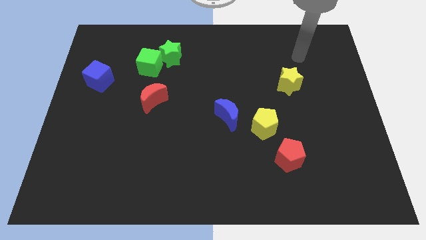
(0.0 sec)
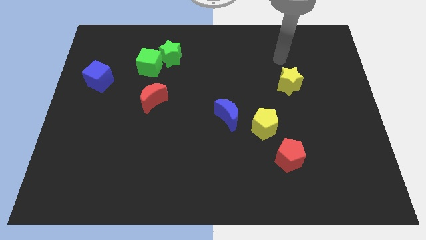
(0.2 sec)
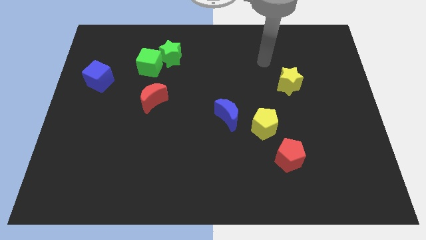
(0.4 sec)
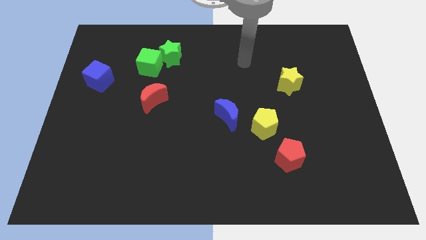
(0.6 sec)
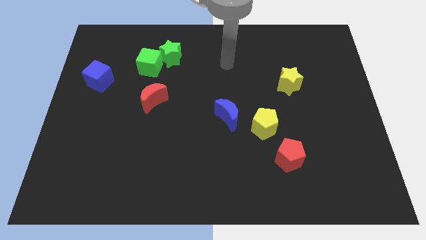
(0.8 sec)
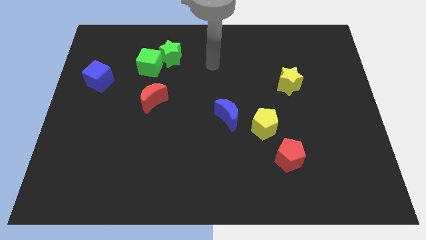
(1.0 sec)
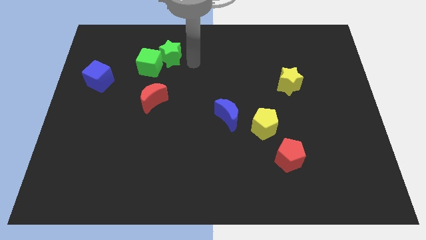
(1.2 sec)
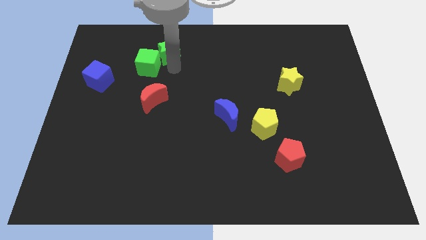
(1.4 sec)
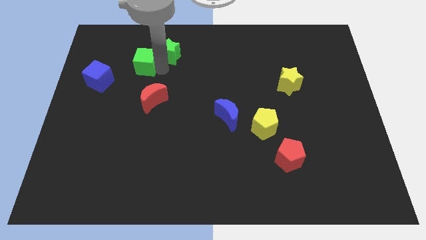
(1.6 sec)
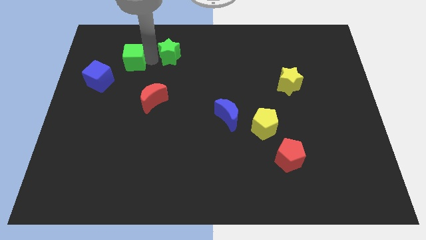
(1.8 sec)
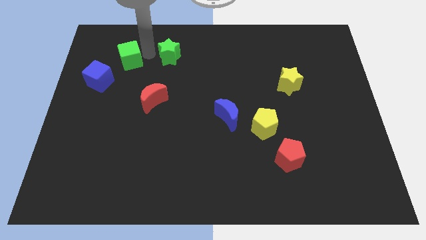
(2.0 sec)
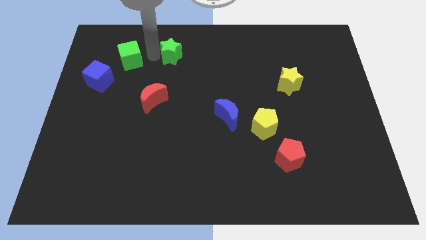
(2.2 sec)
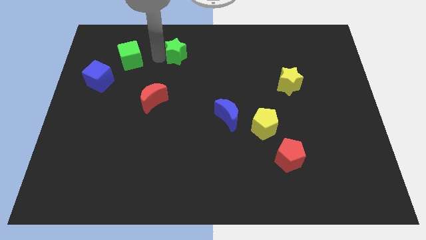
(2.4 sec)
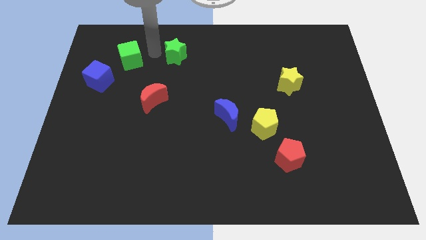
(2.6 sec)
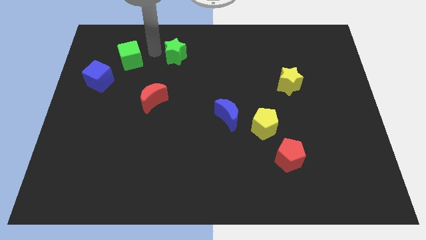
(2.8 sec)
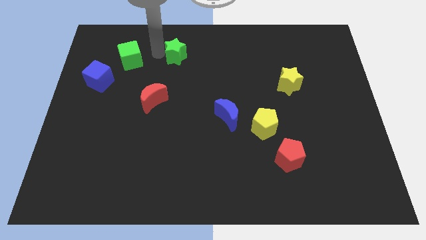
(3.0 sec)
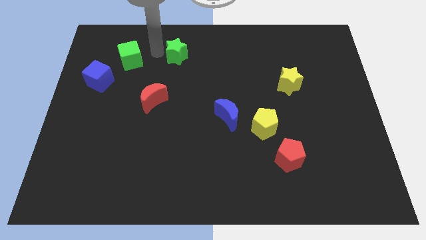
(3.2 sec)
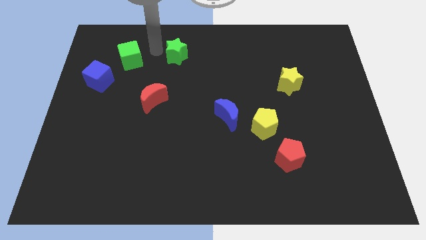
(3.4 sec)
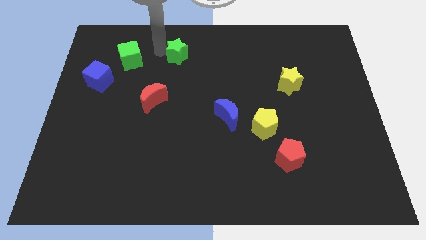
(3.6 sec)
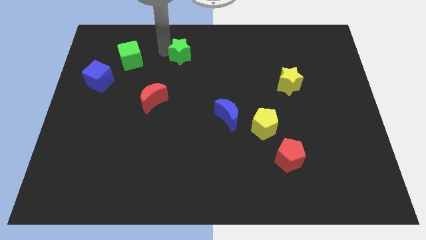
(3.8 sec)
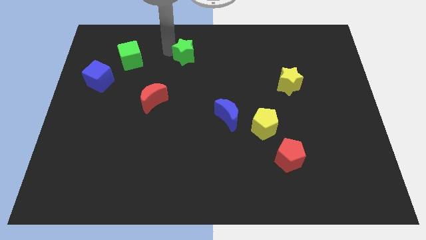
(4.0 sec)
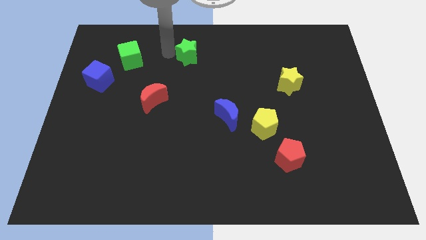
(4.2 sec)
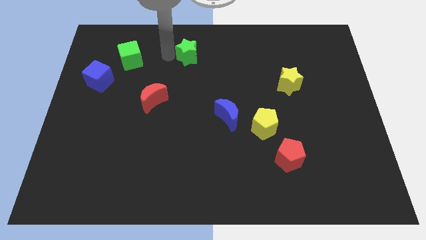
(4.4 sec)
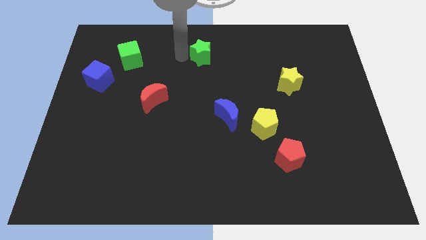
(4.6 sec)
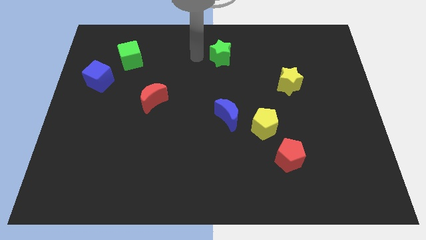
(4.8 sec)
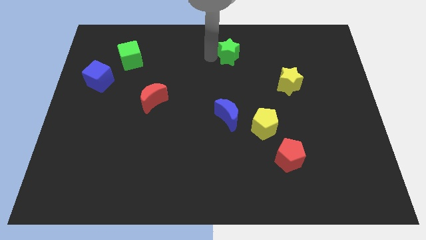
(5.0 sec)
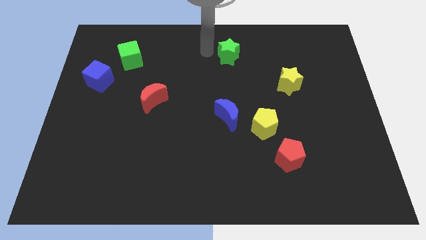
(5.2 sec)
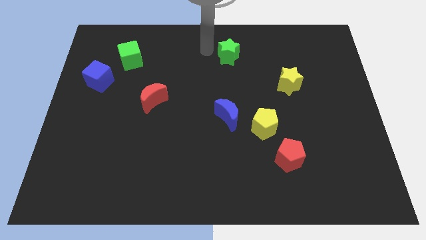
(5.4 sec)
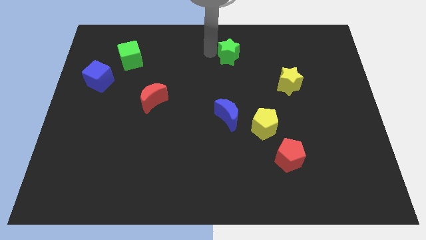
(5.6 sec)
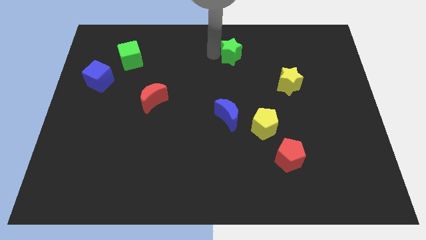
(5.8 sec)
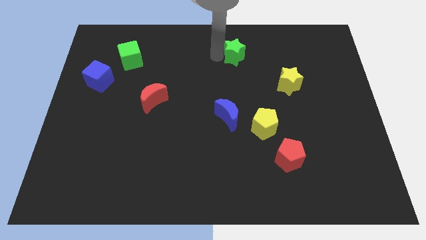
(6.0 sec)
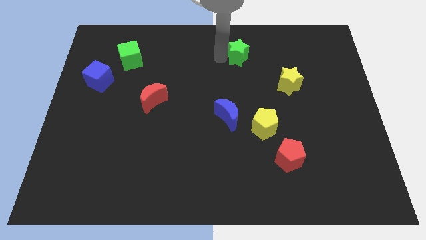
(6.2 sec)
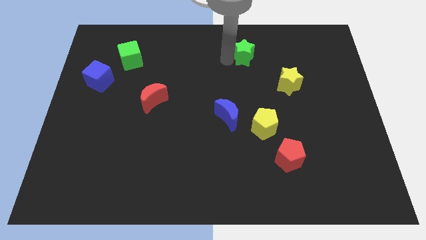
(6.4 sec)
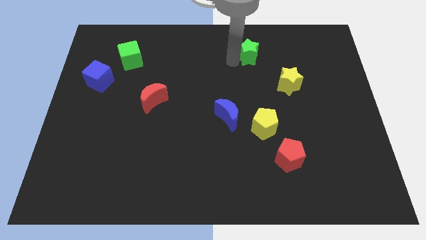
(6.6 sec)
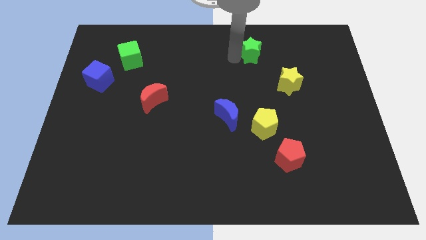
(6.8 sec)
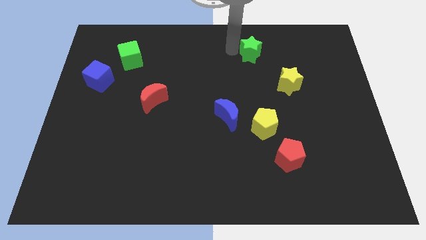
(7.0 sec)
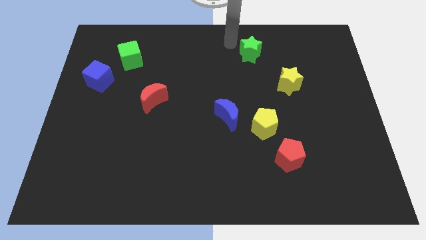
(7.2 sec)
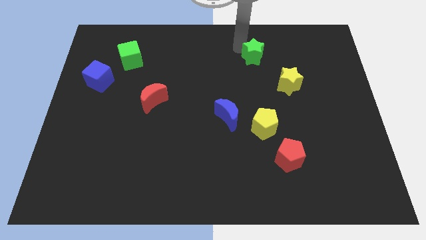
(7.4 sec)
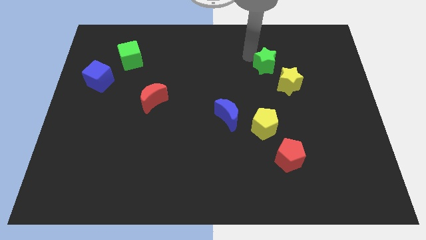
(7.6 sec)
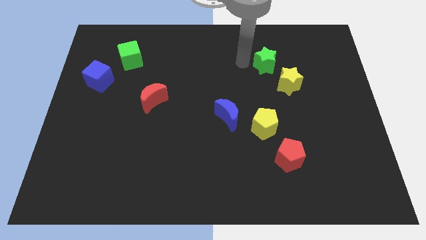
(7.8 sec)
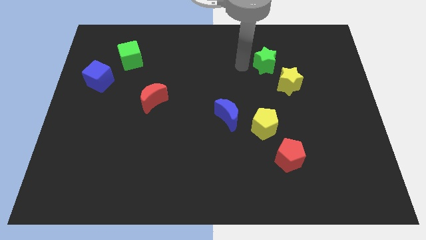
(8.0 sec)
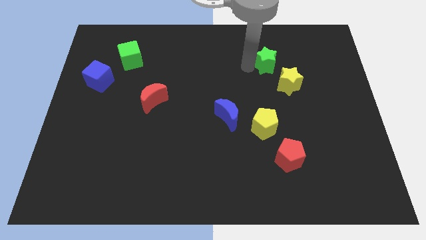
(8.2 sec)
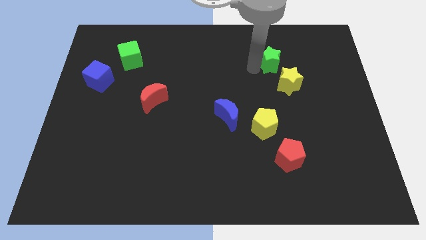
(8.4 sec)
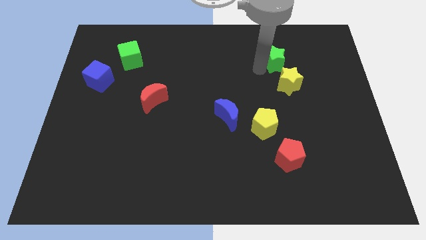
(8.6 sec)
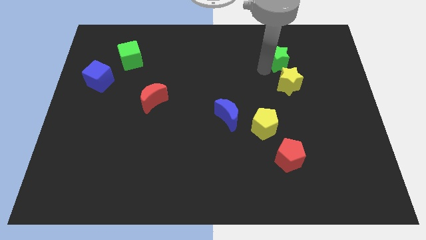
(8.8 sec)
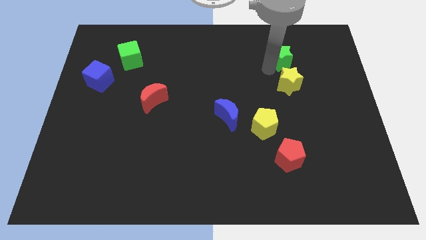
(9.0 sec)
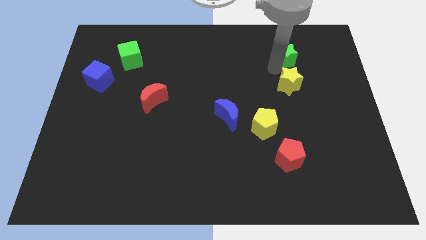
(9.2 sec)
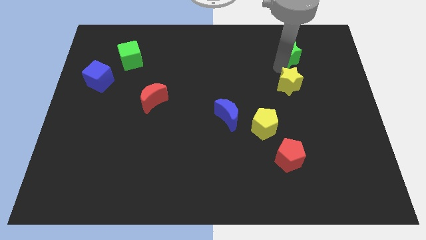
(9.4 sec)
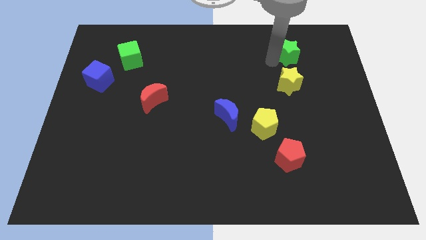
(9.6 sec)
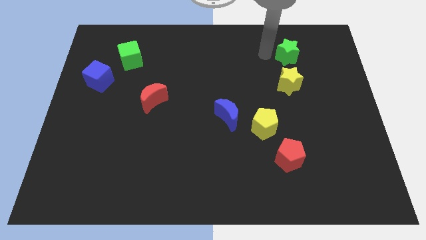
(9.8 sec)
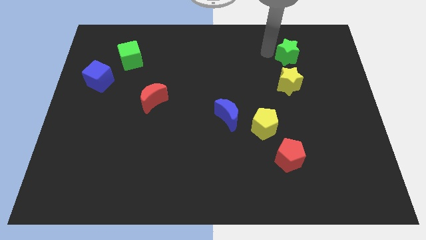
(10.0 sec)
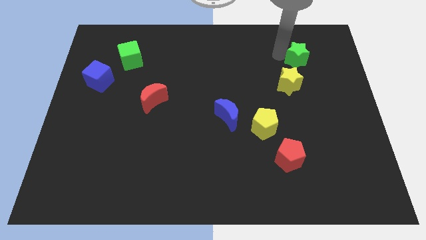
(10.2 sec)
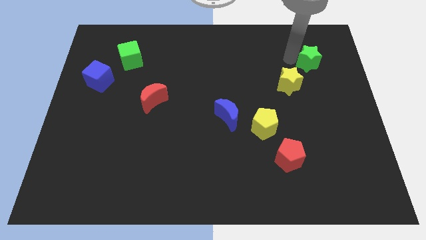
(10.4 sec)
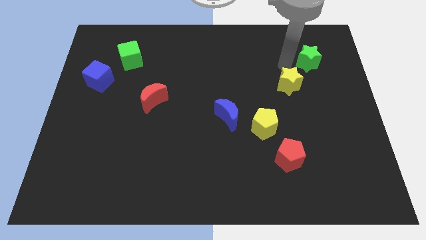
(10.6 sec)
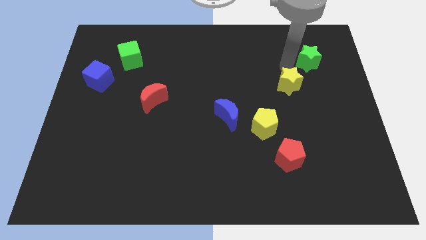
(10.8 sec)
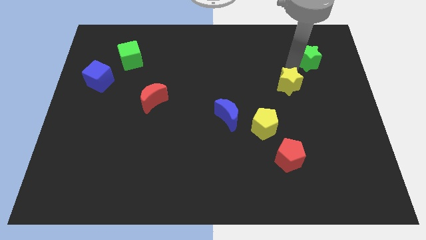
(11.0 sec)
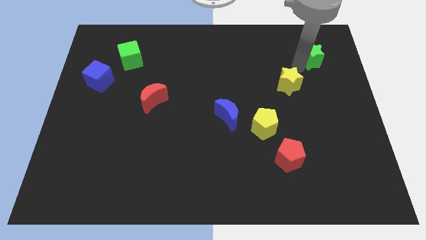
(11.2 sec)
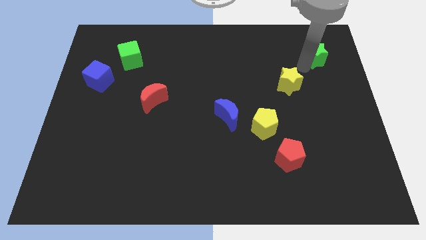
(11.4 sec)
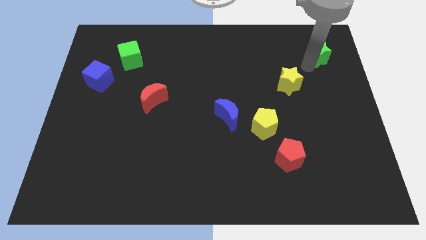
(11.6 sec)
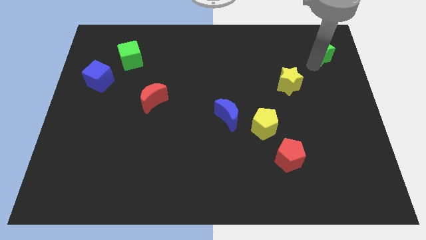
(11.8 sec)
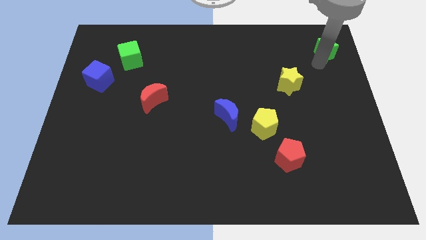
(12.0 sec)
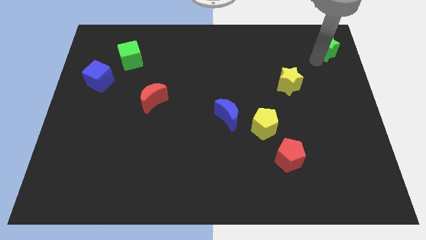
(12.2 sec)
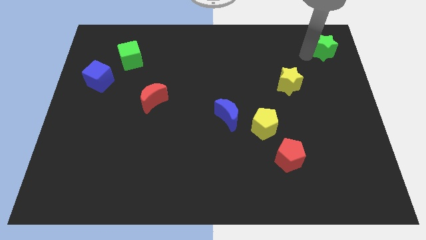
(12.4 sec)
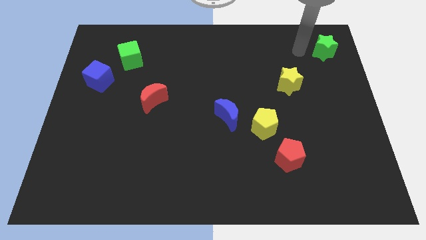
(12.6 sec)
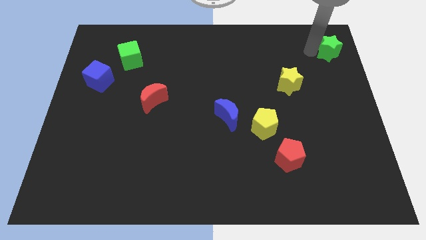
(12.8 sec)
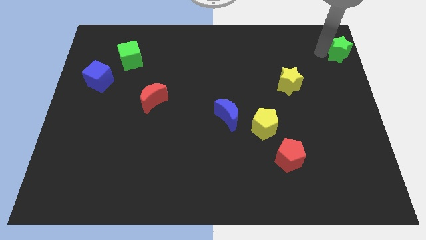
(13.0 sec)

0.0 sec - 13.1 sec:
move the green star to the upper right corner
